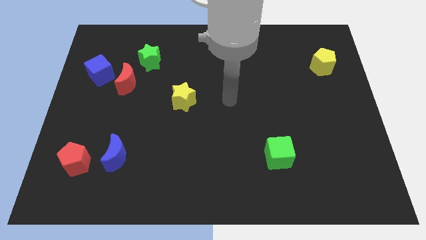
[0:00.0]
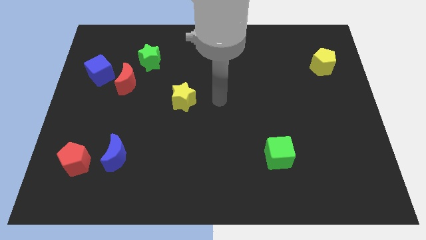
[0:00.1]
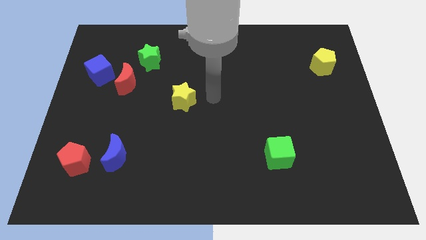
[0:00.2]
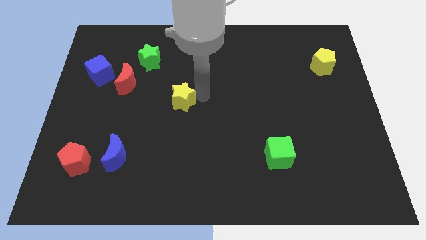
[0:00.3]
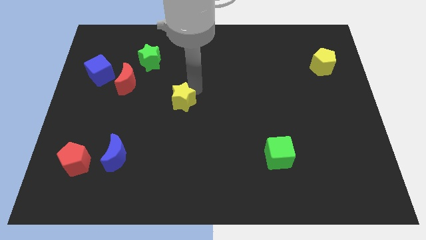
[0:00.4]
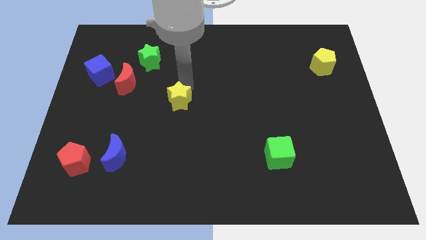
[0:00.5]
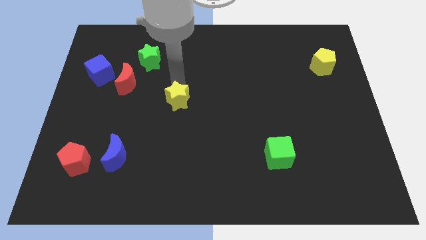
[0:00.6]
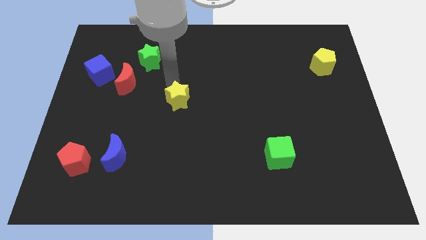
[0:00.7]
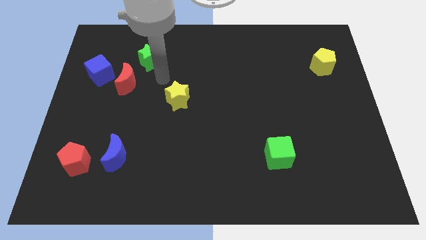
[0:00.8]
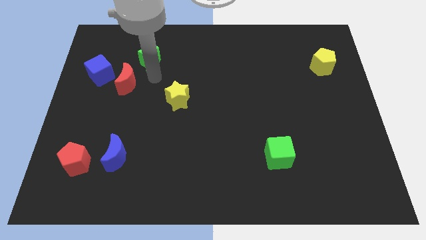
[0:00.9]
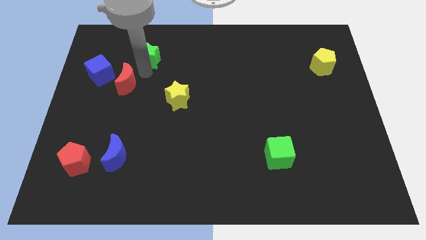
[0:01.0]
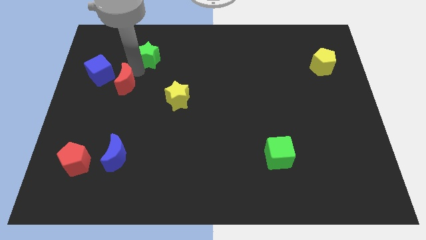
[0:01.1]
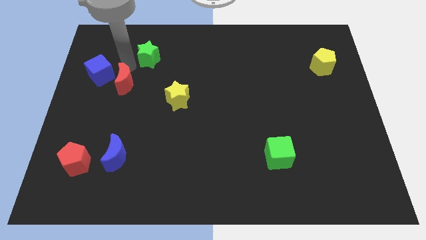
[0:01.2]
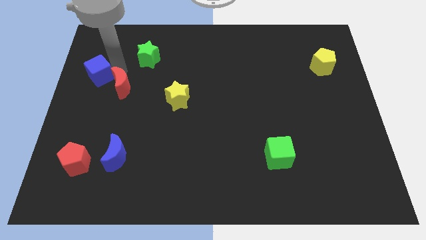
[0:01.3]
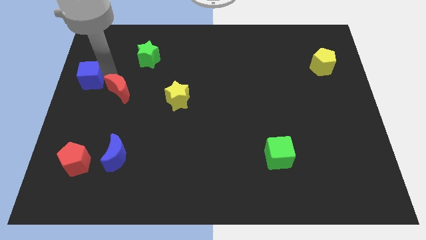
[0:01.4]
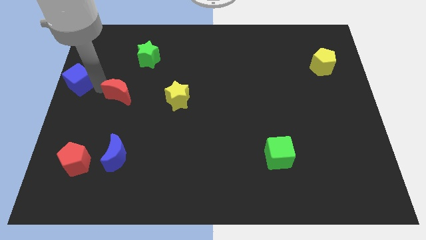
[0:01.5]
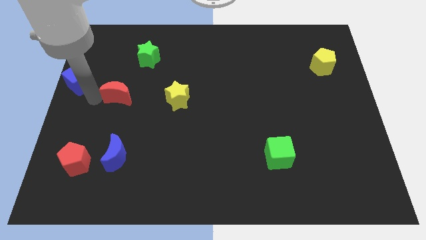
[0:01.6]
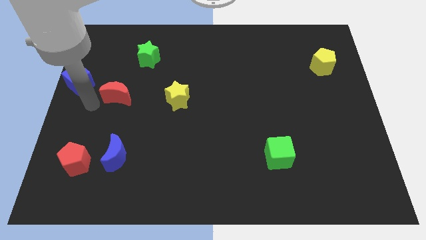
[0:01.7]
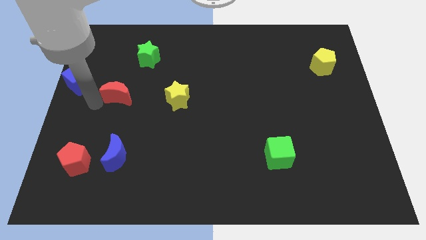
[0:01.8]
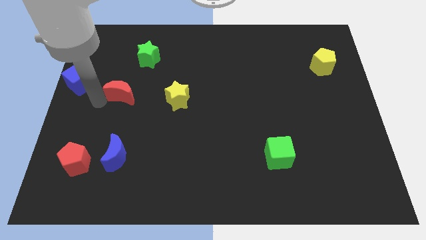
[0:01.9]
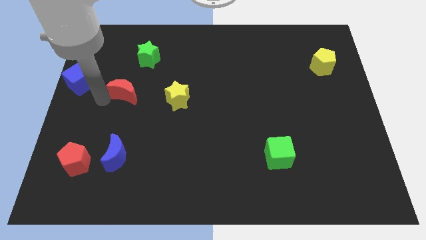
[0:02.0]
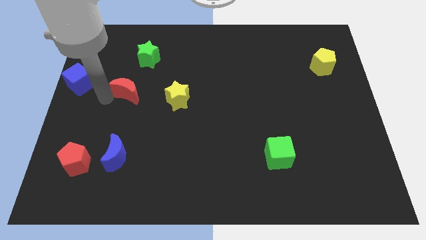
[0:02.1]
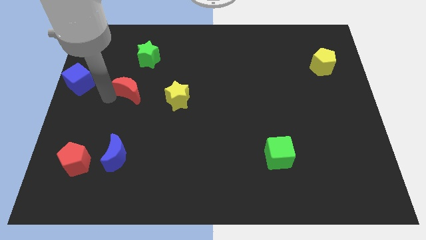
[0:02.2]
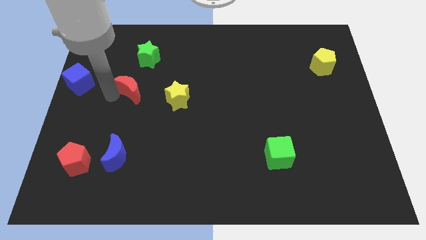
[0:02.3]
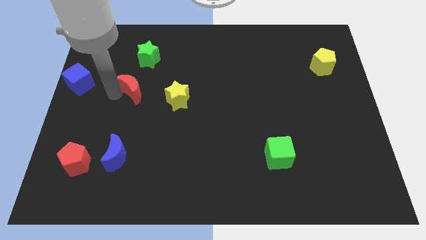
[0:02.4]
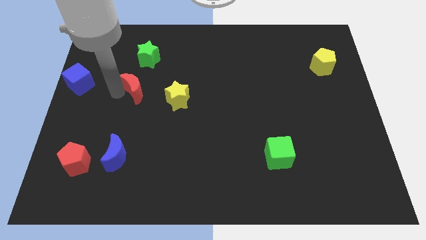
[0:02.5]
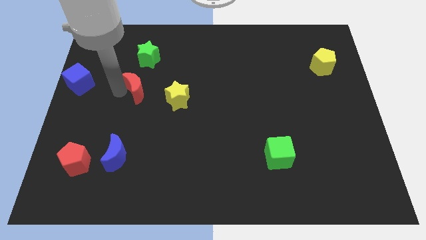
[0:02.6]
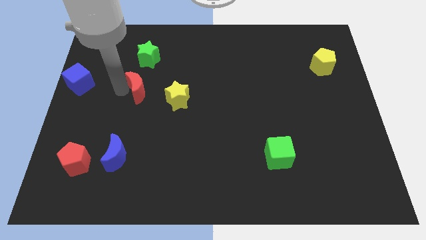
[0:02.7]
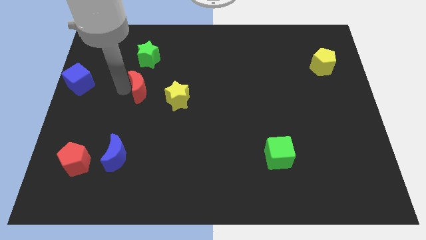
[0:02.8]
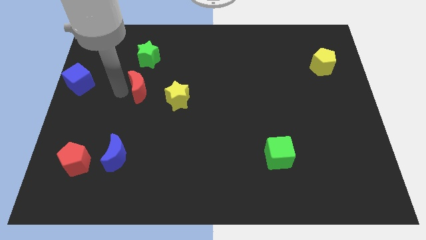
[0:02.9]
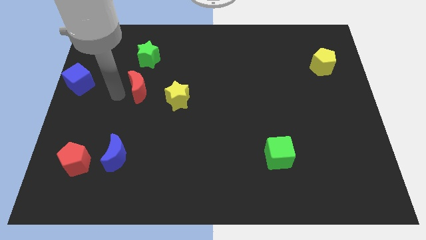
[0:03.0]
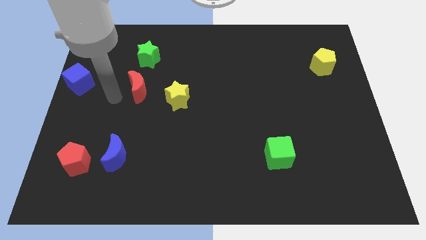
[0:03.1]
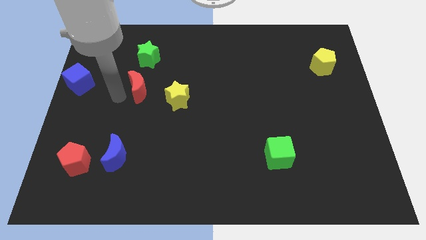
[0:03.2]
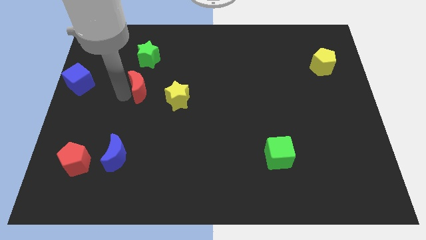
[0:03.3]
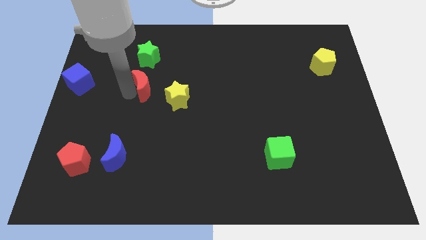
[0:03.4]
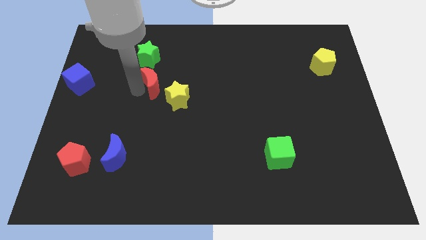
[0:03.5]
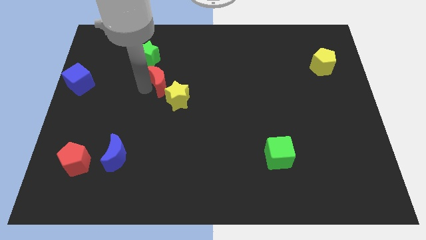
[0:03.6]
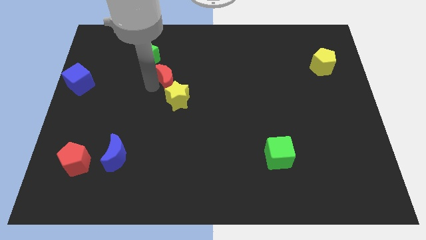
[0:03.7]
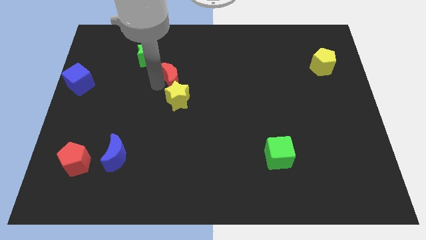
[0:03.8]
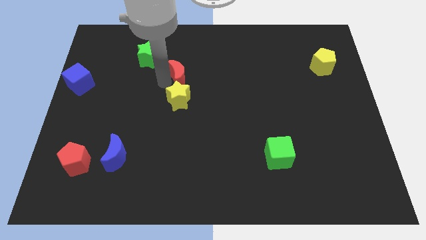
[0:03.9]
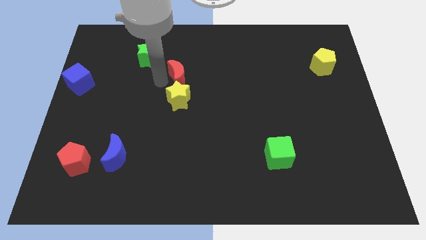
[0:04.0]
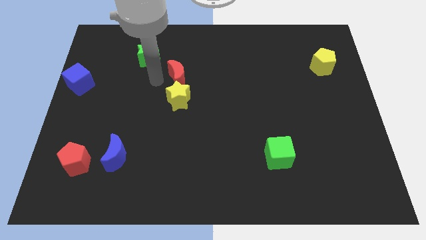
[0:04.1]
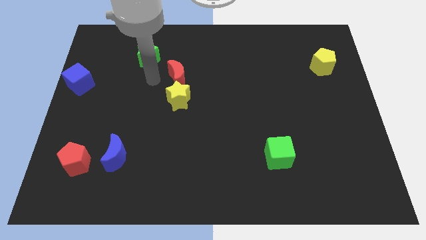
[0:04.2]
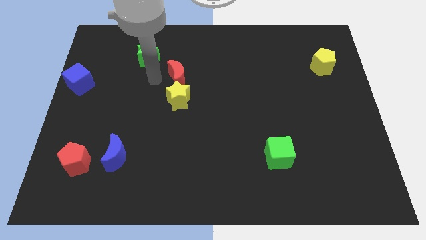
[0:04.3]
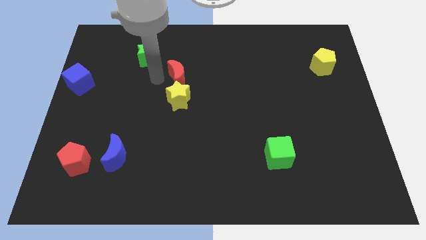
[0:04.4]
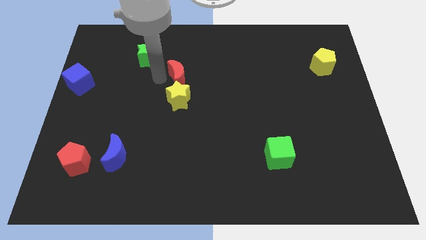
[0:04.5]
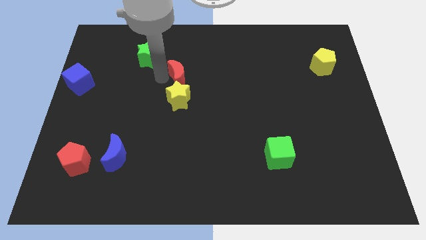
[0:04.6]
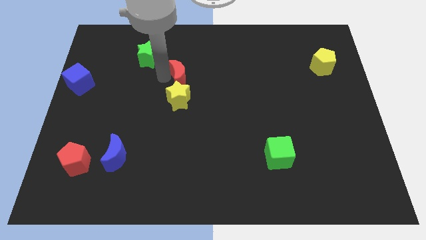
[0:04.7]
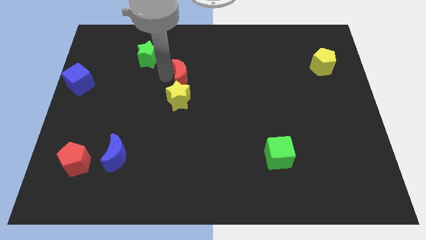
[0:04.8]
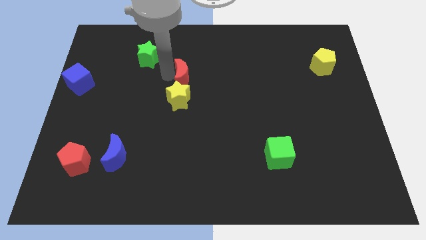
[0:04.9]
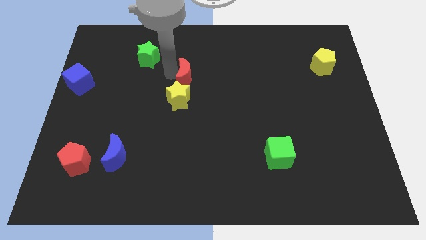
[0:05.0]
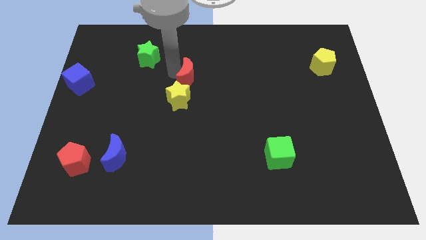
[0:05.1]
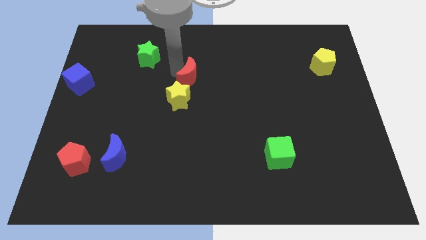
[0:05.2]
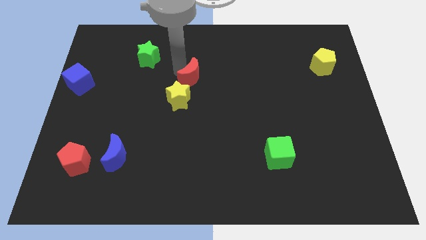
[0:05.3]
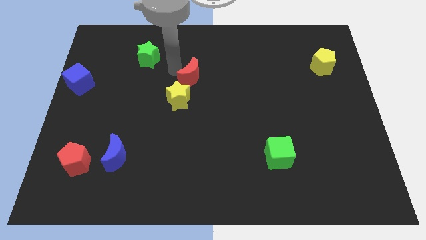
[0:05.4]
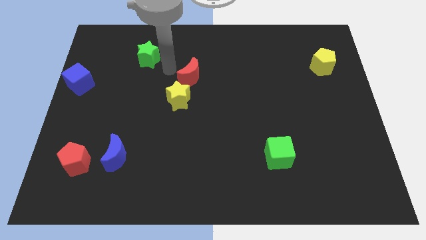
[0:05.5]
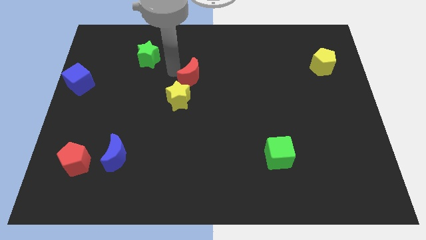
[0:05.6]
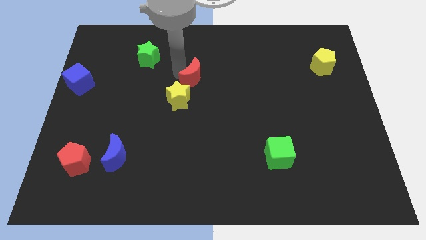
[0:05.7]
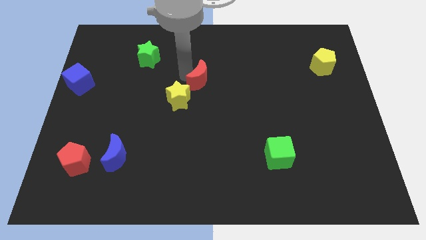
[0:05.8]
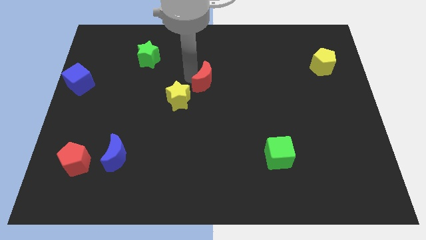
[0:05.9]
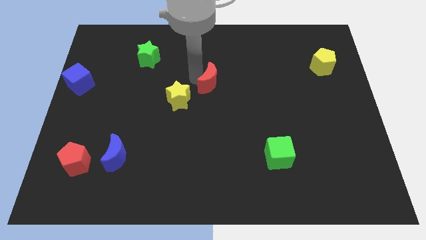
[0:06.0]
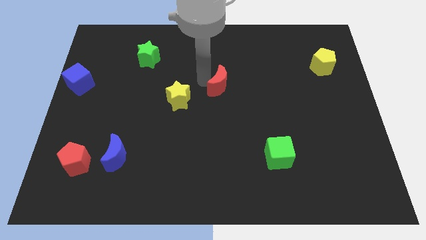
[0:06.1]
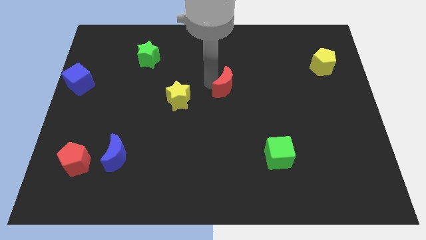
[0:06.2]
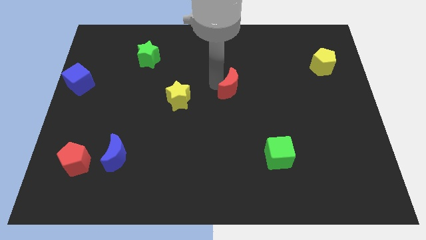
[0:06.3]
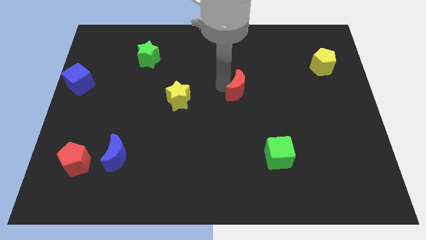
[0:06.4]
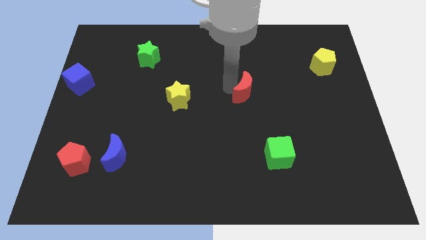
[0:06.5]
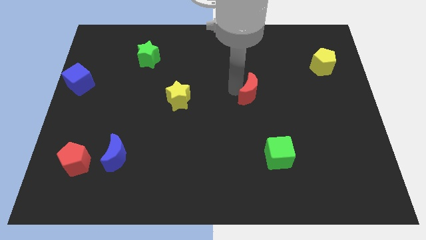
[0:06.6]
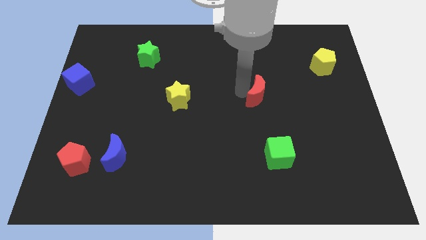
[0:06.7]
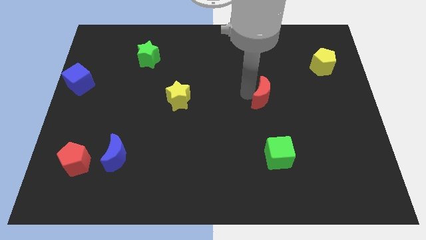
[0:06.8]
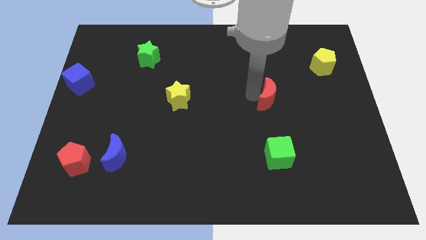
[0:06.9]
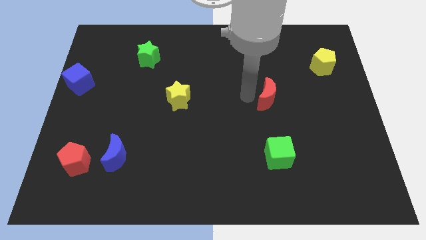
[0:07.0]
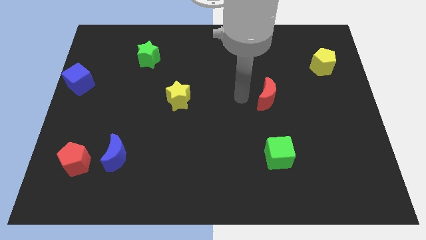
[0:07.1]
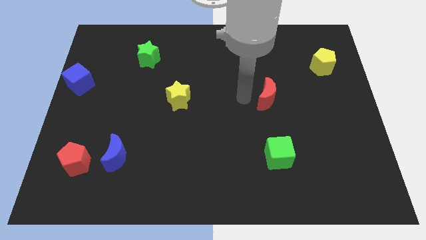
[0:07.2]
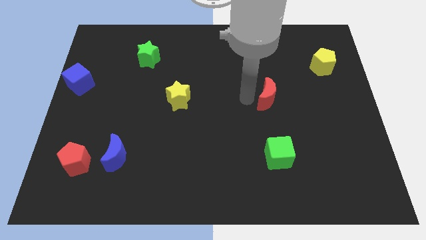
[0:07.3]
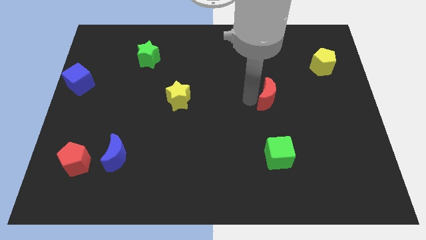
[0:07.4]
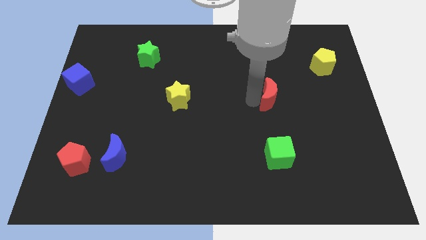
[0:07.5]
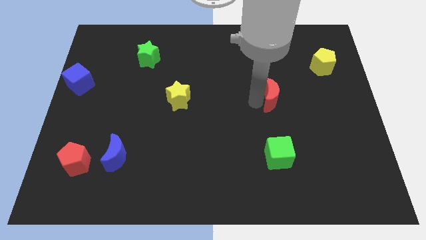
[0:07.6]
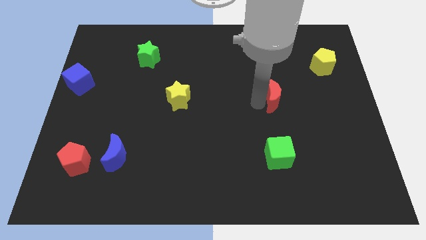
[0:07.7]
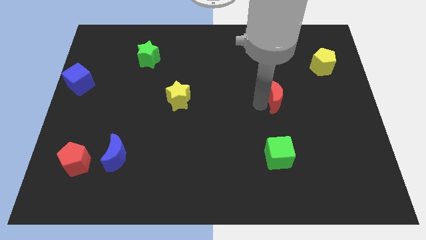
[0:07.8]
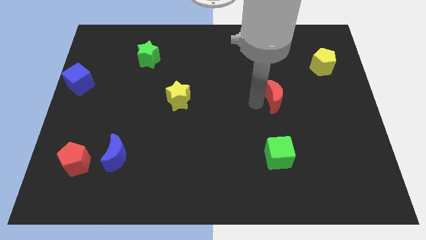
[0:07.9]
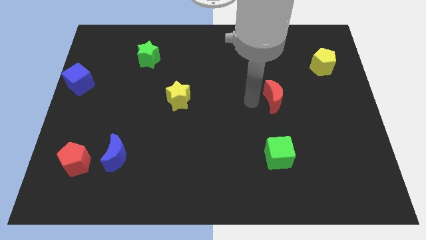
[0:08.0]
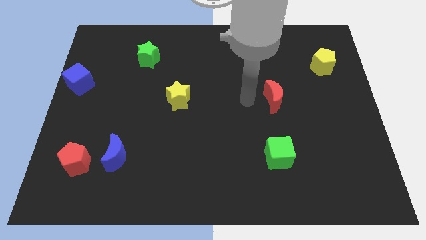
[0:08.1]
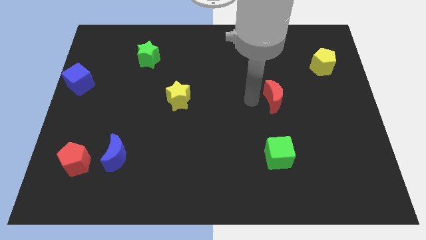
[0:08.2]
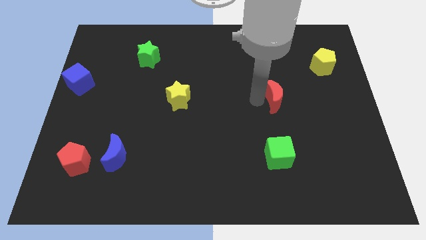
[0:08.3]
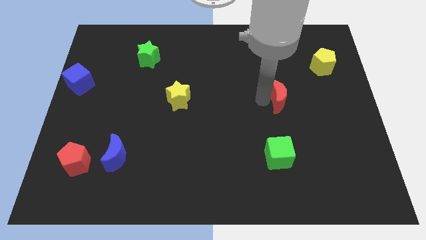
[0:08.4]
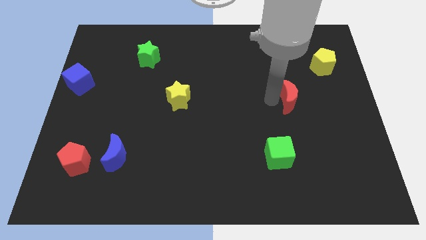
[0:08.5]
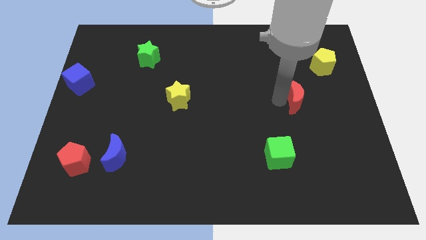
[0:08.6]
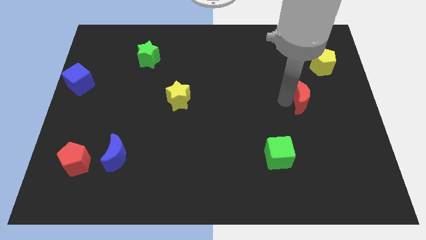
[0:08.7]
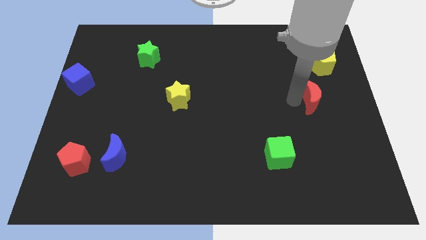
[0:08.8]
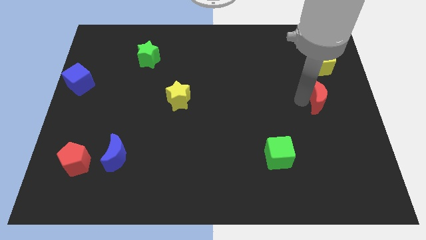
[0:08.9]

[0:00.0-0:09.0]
slide the red moon to the right side
